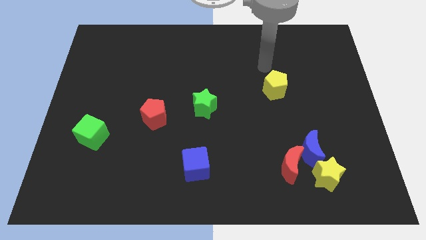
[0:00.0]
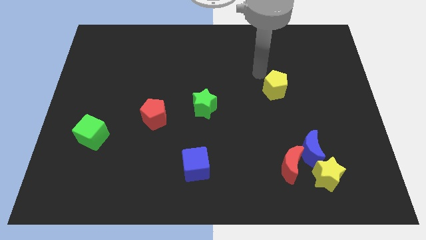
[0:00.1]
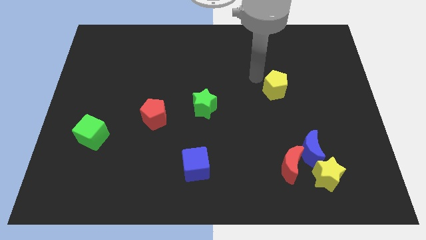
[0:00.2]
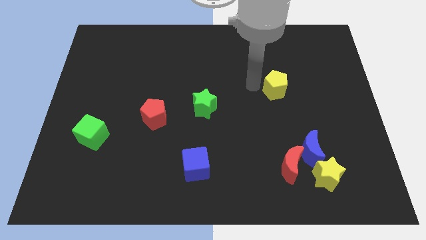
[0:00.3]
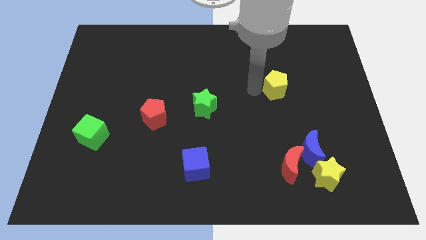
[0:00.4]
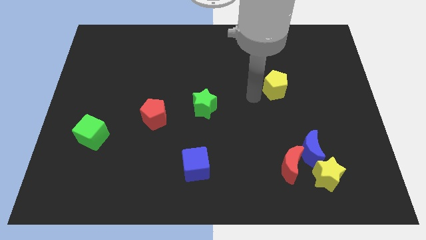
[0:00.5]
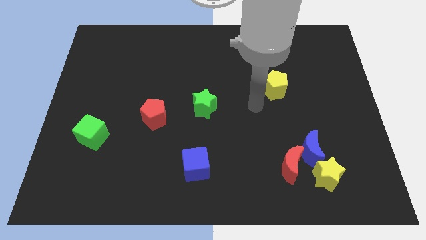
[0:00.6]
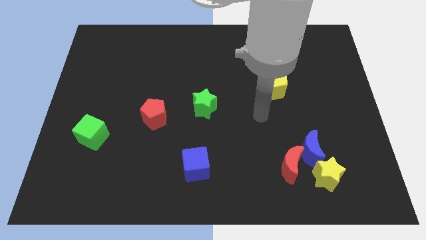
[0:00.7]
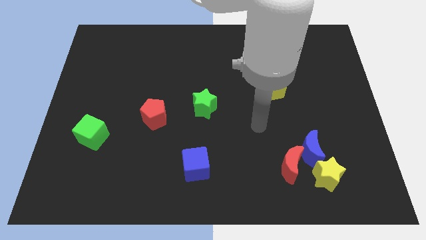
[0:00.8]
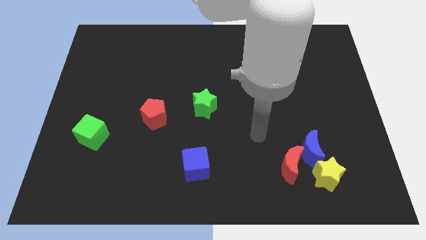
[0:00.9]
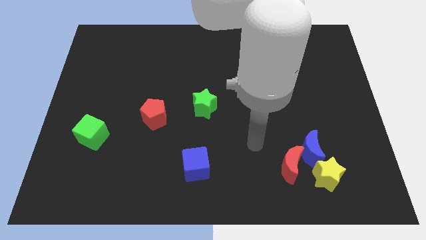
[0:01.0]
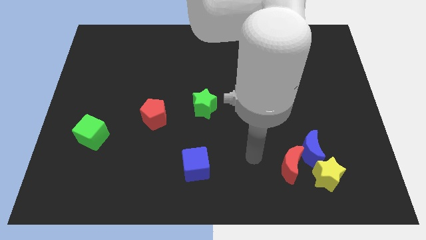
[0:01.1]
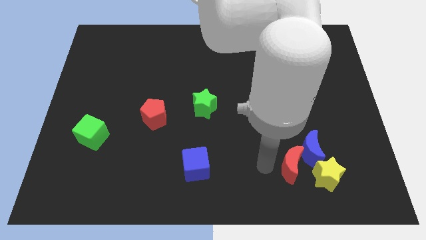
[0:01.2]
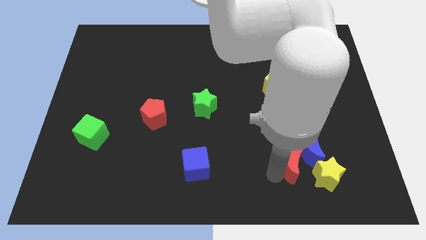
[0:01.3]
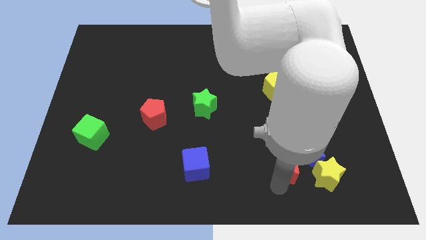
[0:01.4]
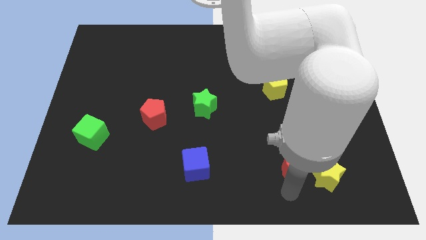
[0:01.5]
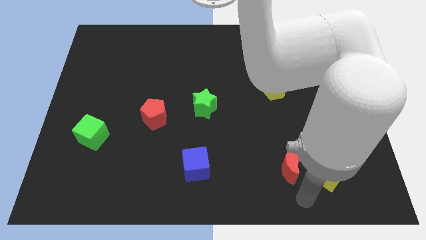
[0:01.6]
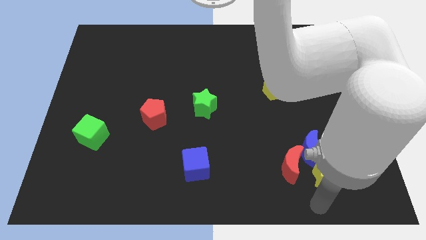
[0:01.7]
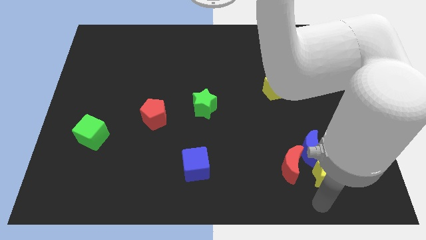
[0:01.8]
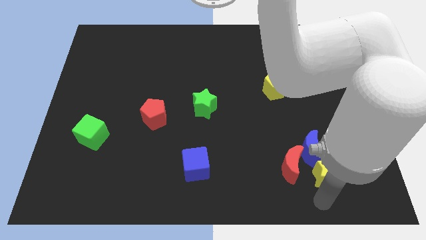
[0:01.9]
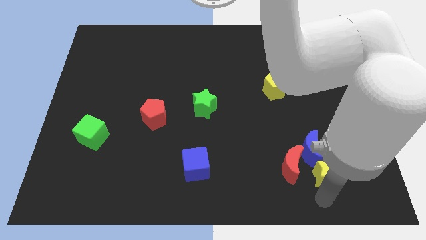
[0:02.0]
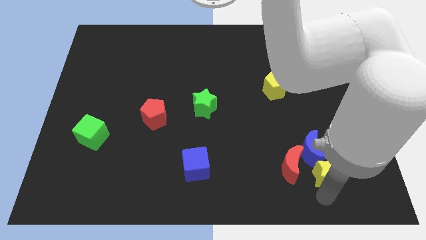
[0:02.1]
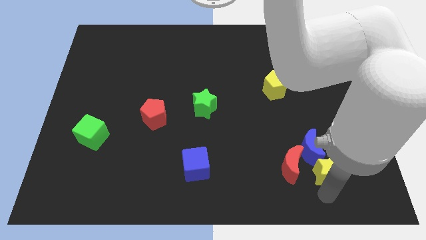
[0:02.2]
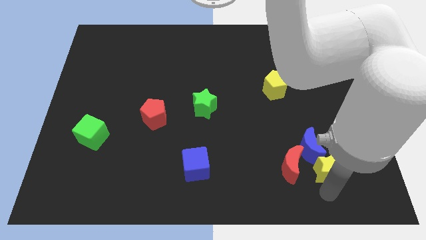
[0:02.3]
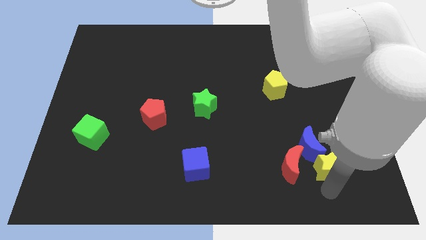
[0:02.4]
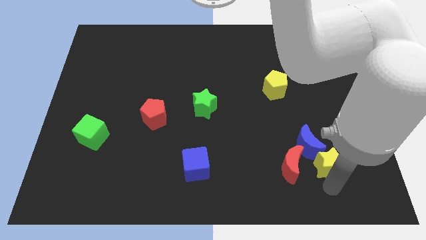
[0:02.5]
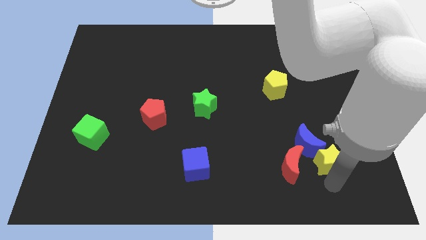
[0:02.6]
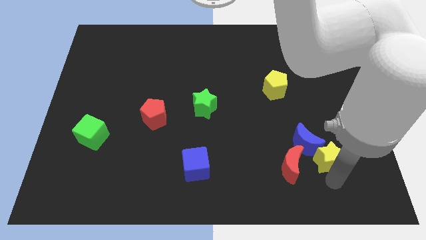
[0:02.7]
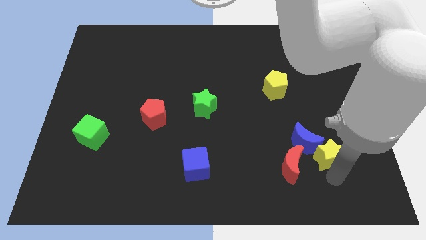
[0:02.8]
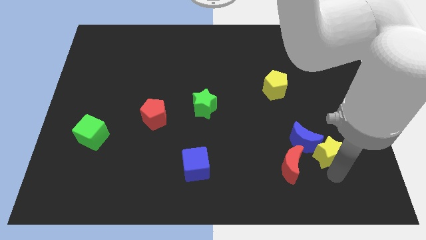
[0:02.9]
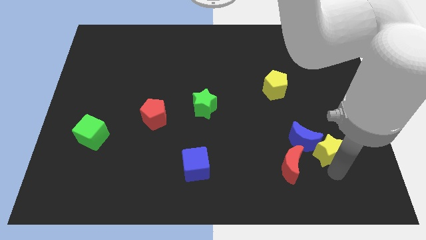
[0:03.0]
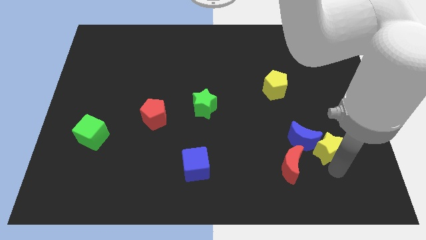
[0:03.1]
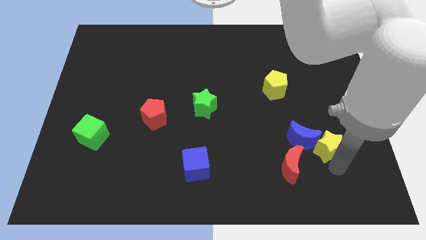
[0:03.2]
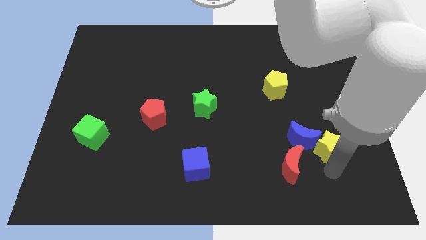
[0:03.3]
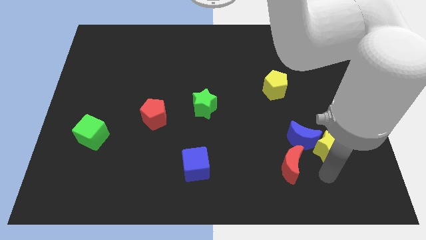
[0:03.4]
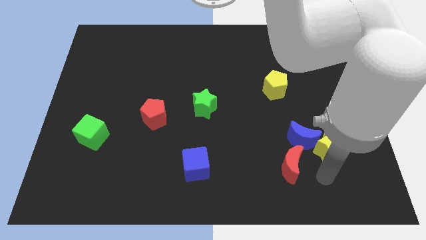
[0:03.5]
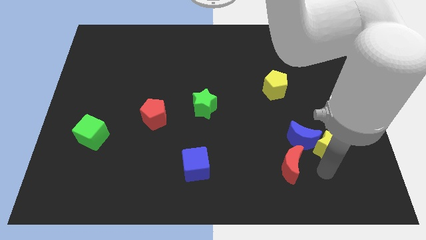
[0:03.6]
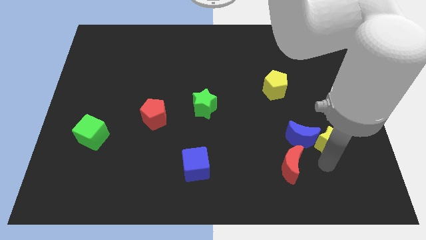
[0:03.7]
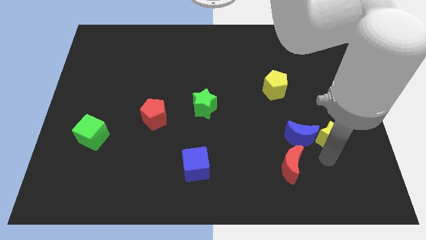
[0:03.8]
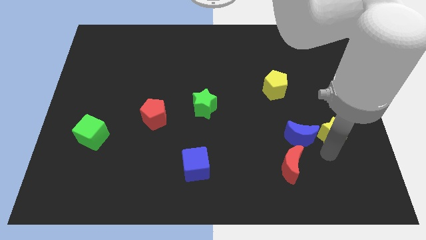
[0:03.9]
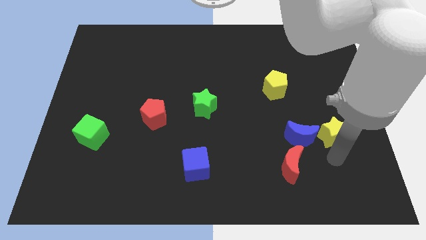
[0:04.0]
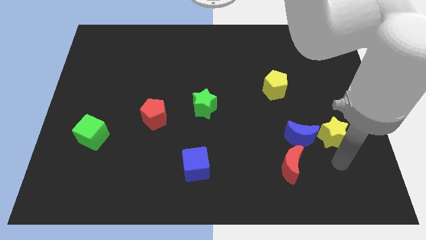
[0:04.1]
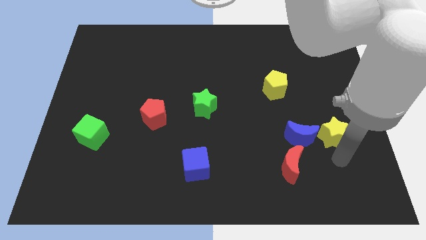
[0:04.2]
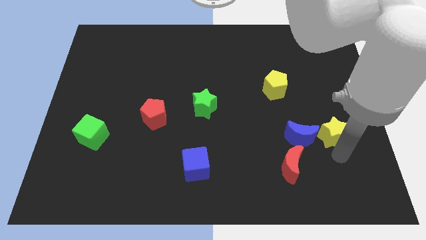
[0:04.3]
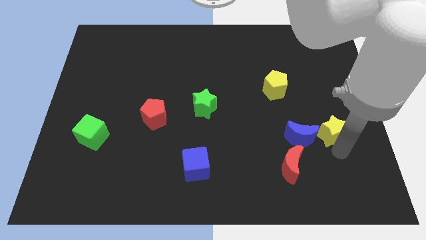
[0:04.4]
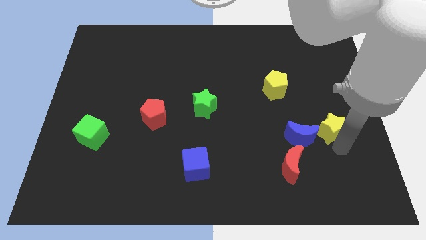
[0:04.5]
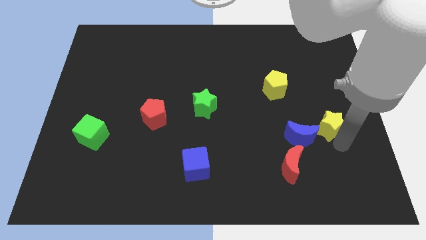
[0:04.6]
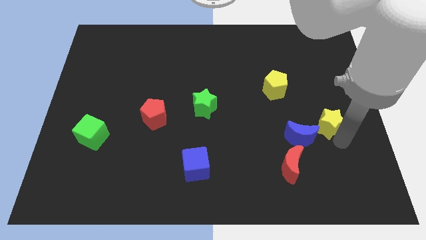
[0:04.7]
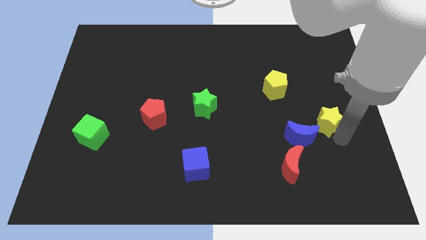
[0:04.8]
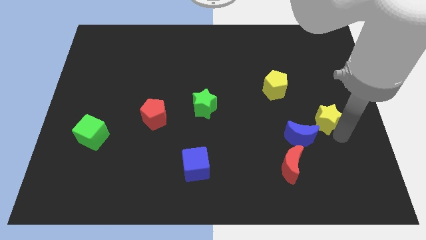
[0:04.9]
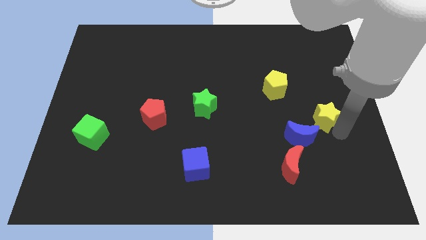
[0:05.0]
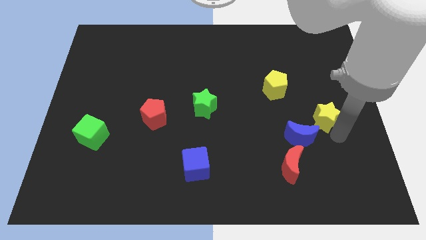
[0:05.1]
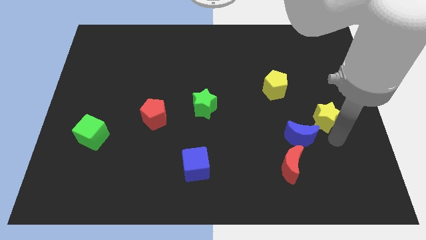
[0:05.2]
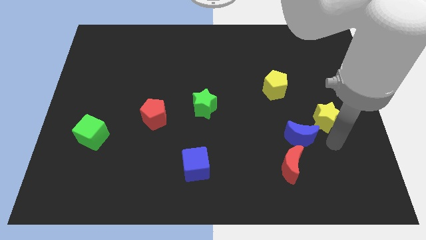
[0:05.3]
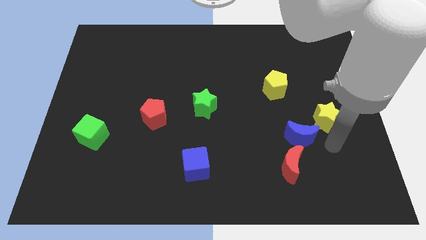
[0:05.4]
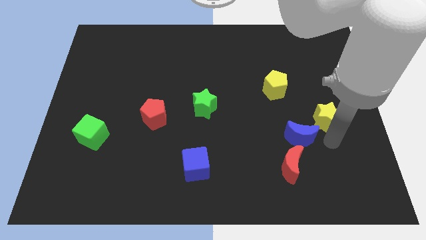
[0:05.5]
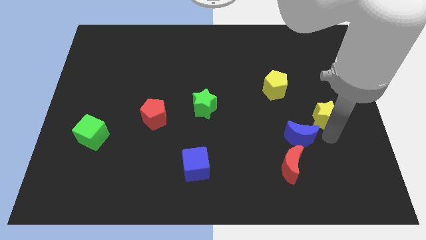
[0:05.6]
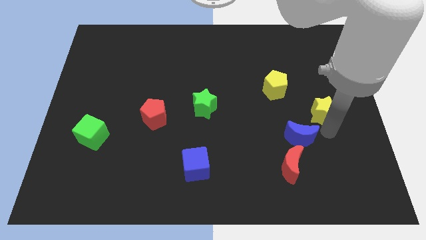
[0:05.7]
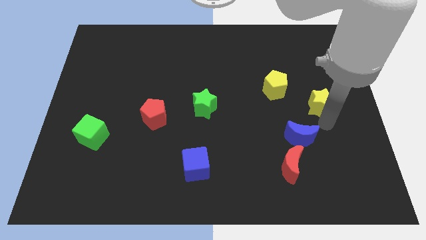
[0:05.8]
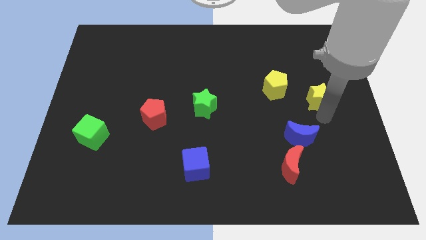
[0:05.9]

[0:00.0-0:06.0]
push the yellow star upwards

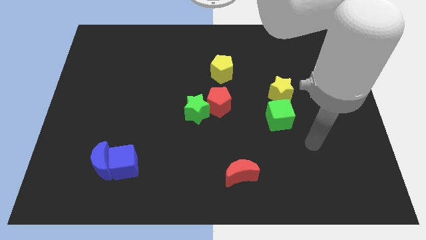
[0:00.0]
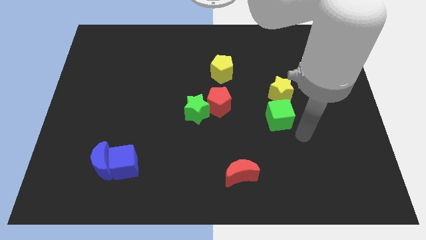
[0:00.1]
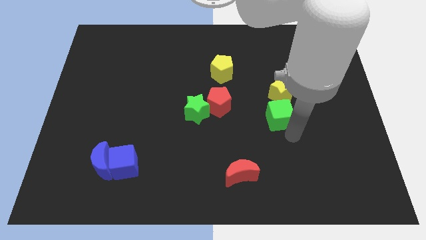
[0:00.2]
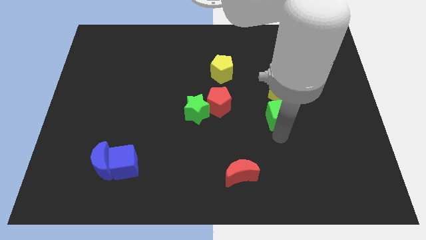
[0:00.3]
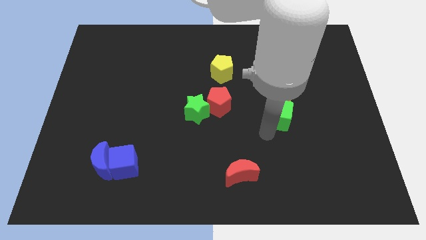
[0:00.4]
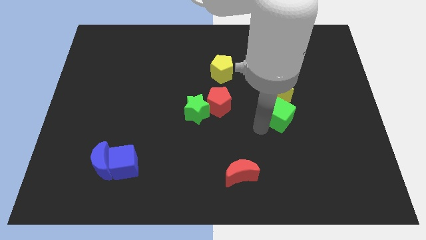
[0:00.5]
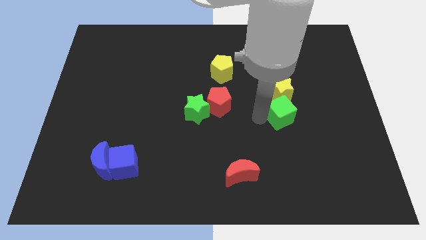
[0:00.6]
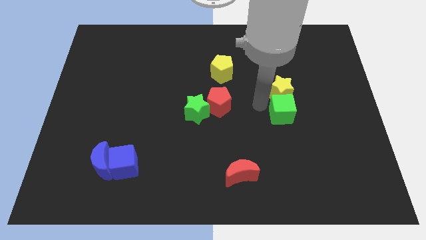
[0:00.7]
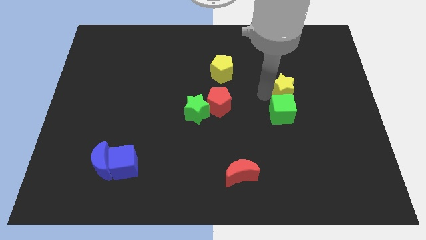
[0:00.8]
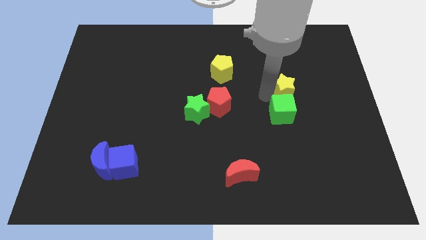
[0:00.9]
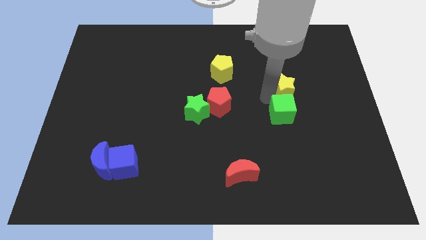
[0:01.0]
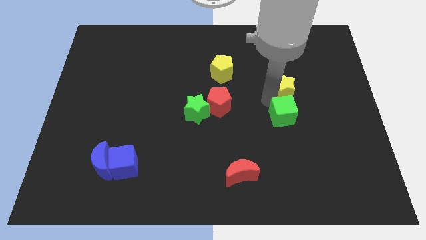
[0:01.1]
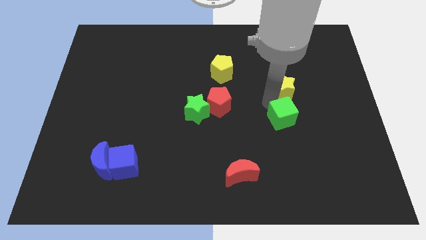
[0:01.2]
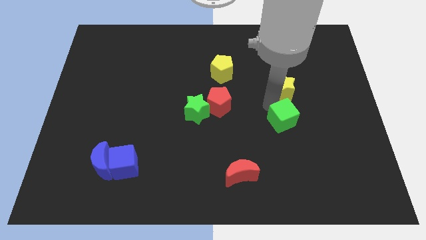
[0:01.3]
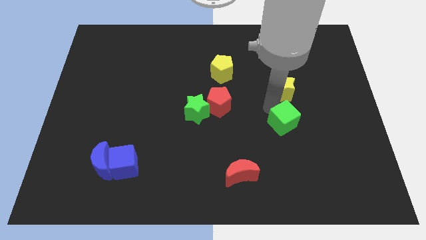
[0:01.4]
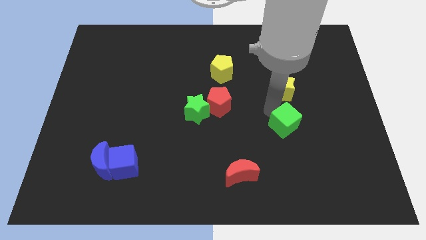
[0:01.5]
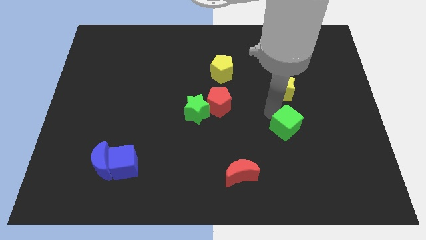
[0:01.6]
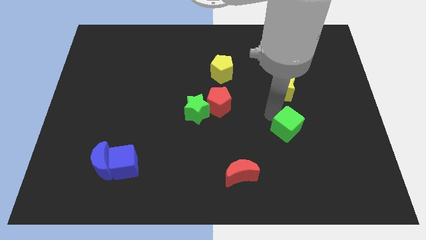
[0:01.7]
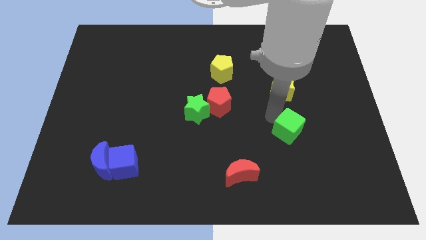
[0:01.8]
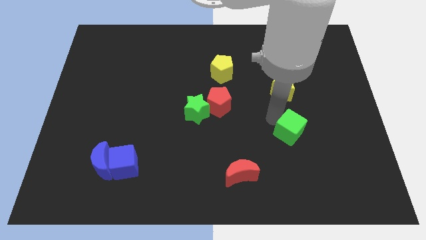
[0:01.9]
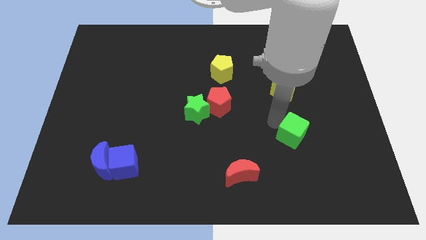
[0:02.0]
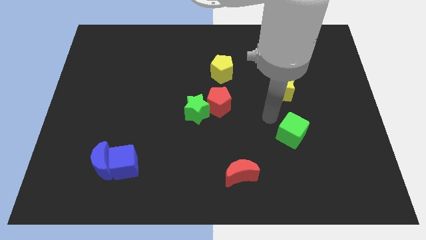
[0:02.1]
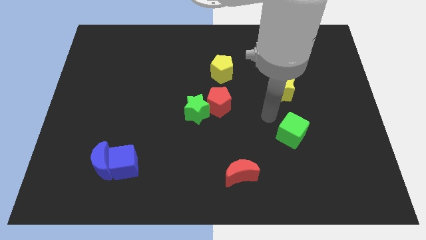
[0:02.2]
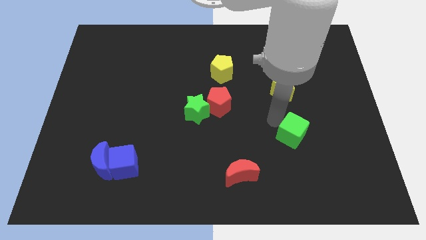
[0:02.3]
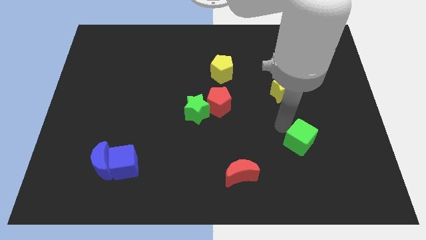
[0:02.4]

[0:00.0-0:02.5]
slightly move the green cube down and right diagonally
